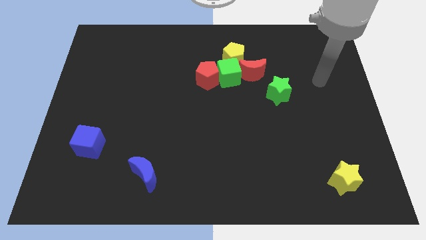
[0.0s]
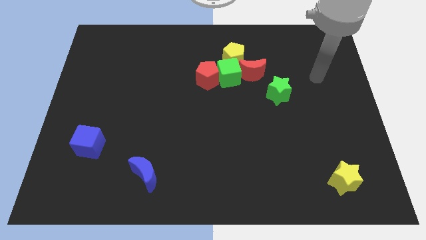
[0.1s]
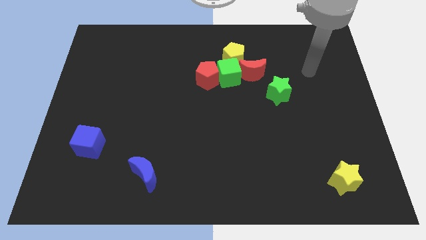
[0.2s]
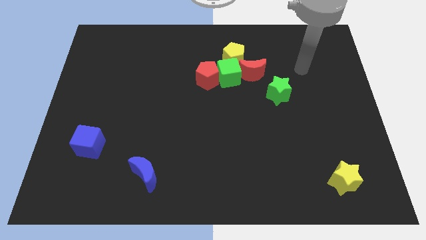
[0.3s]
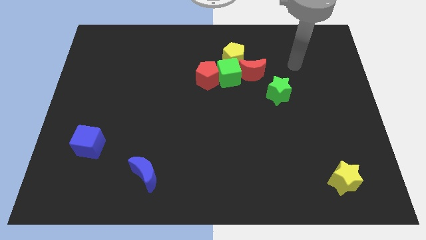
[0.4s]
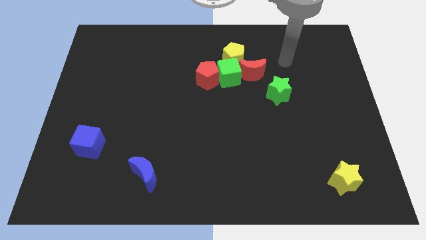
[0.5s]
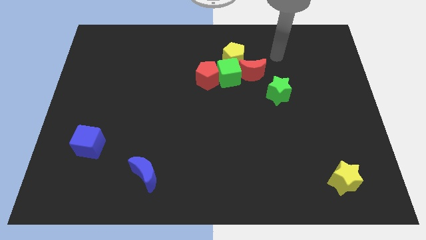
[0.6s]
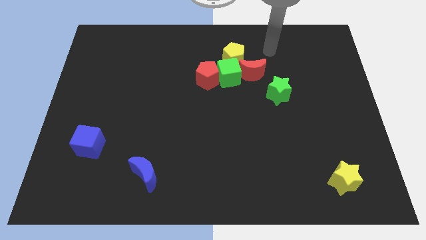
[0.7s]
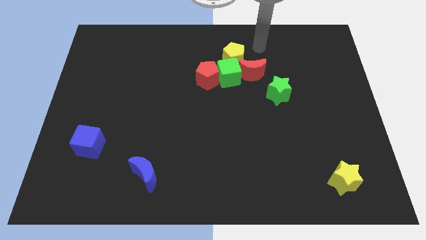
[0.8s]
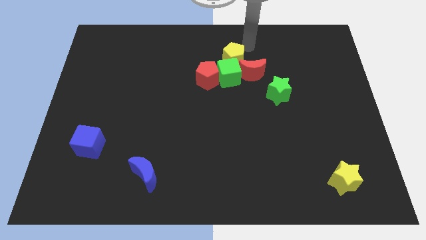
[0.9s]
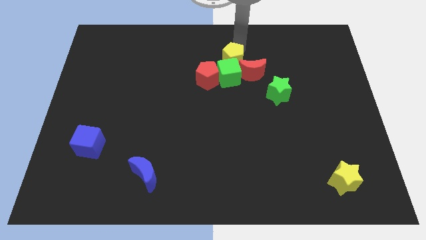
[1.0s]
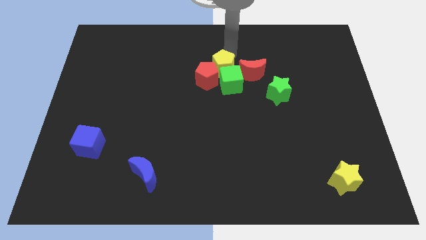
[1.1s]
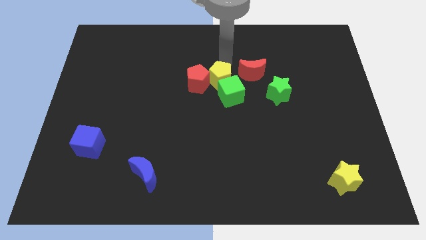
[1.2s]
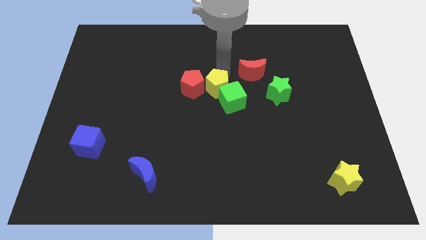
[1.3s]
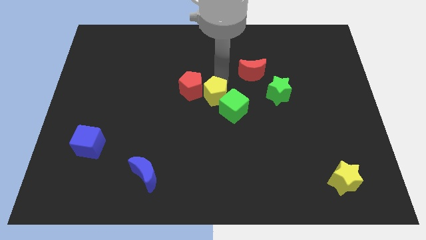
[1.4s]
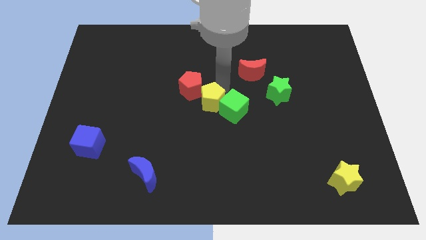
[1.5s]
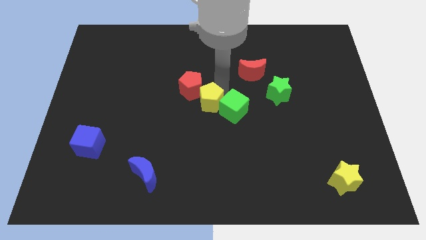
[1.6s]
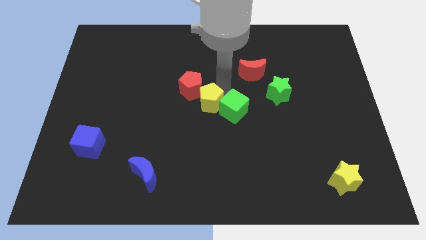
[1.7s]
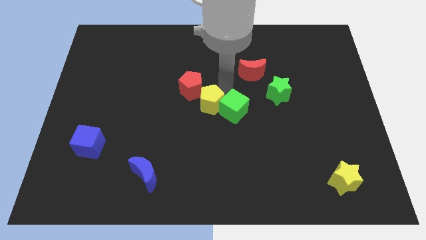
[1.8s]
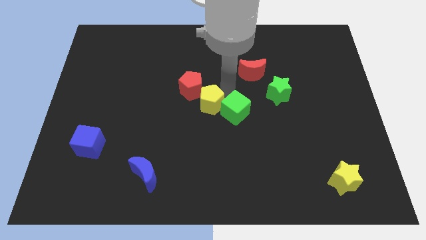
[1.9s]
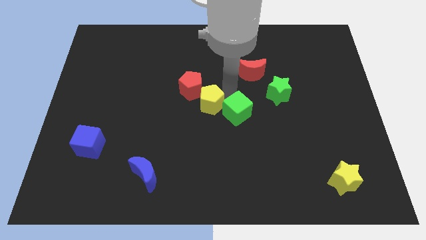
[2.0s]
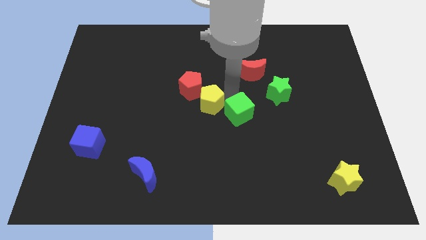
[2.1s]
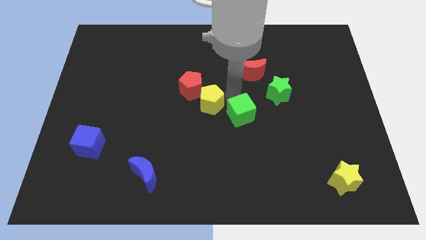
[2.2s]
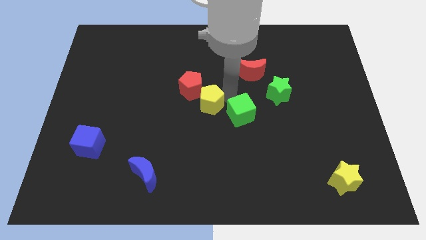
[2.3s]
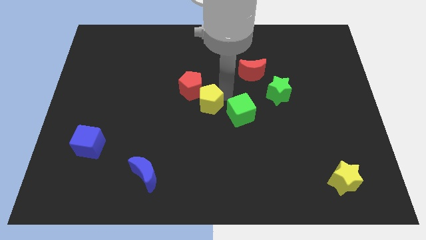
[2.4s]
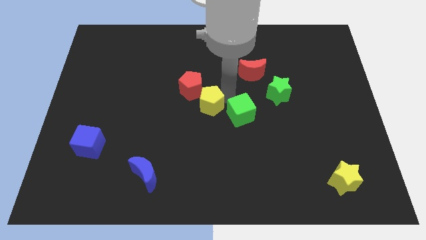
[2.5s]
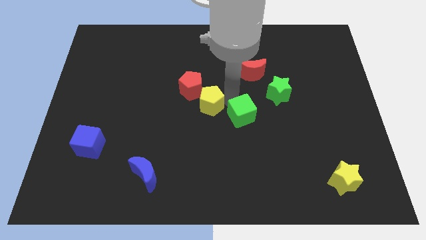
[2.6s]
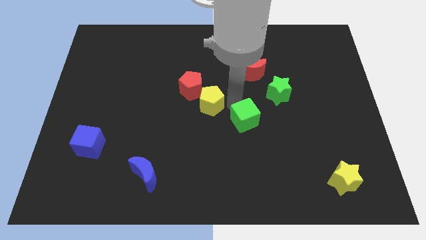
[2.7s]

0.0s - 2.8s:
pull the green cube apart from the group

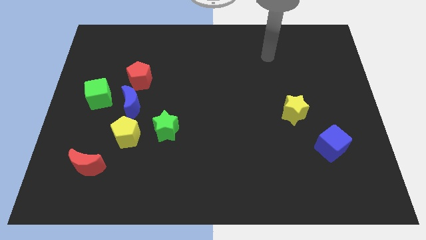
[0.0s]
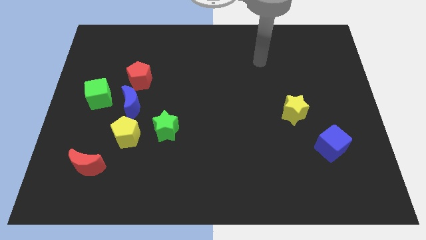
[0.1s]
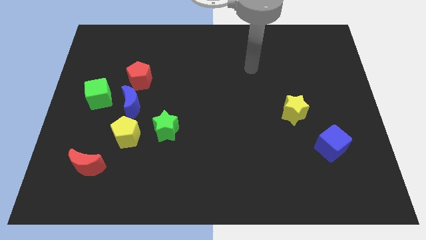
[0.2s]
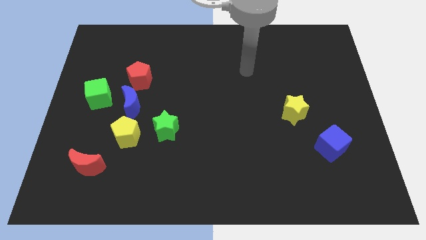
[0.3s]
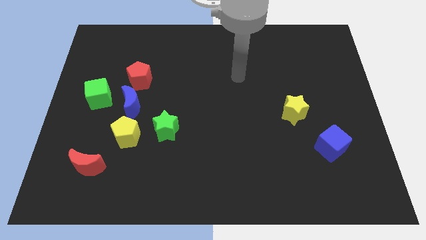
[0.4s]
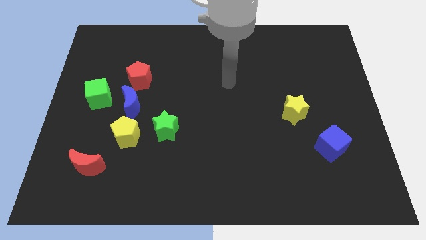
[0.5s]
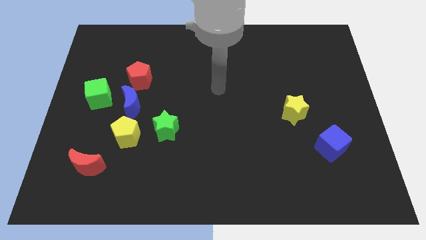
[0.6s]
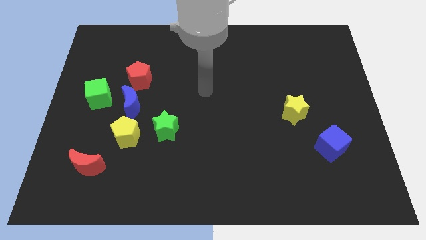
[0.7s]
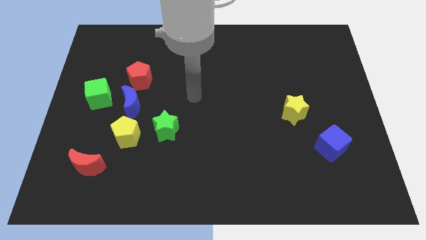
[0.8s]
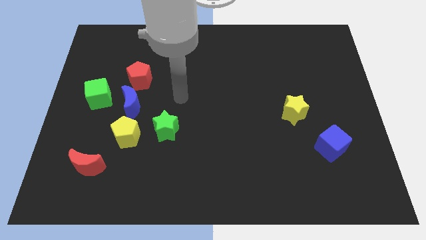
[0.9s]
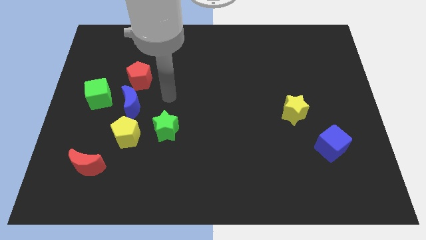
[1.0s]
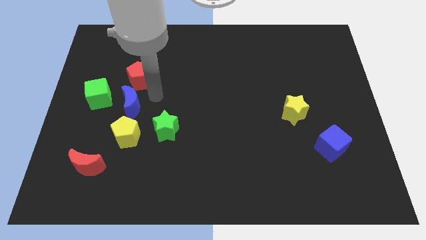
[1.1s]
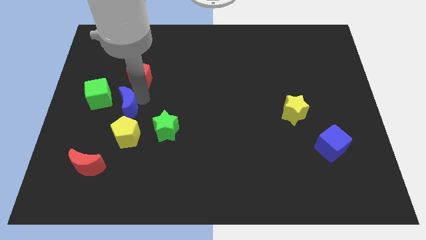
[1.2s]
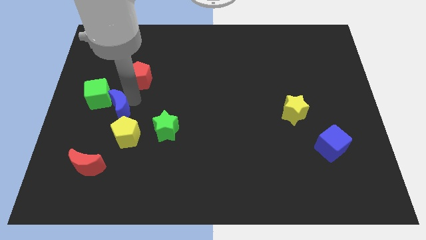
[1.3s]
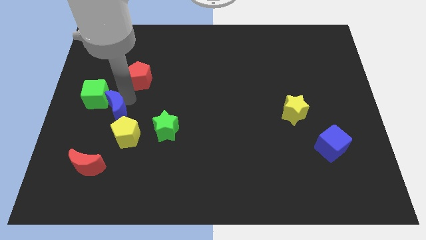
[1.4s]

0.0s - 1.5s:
move the red pentagon away from the blue moon

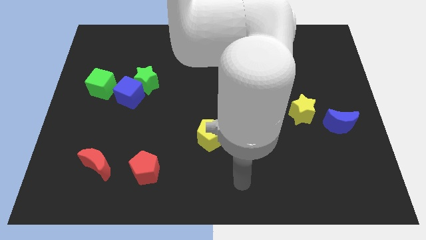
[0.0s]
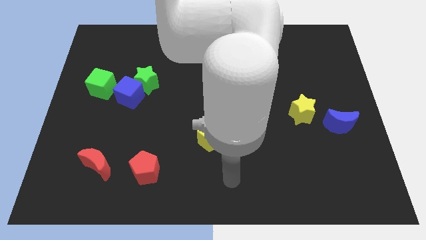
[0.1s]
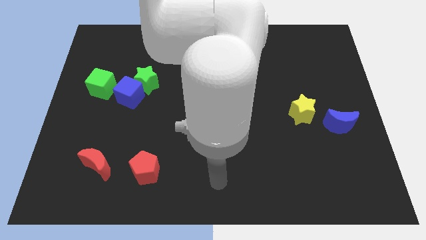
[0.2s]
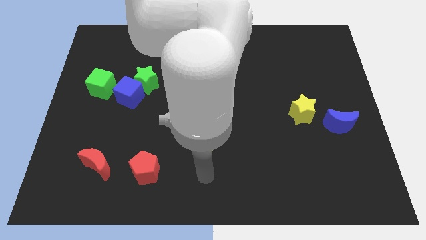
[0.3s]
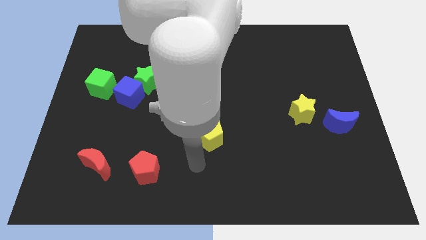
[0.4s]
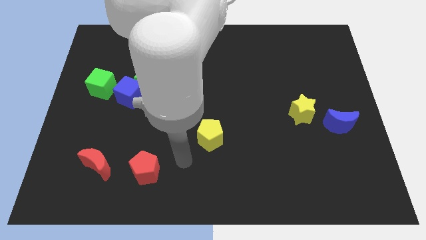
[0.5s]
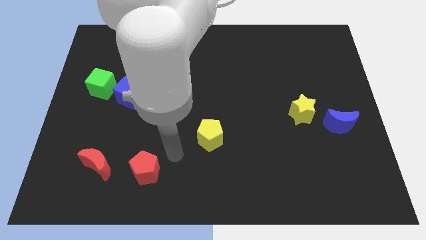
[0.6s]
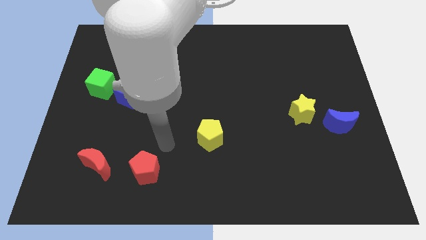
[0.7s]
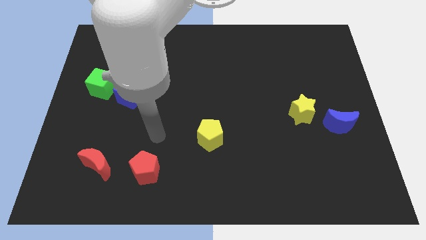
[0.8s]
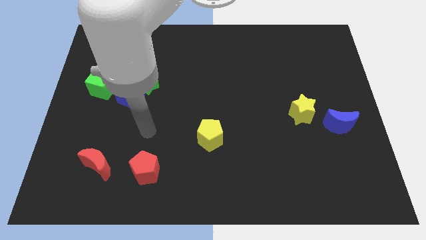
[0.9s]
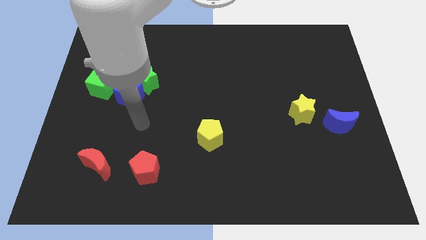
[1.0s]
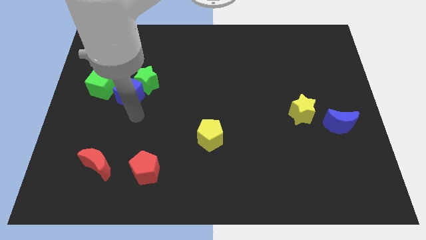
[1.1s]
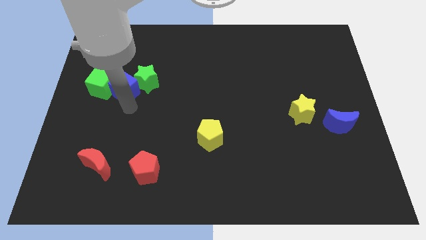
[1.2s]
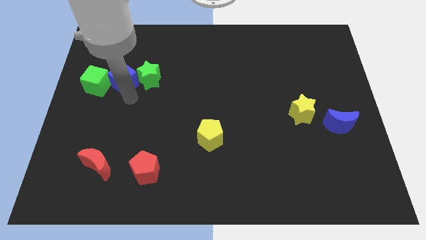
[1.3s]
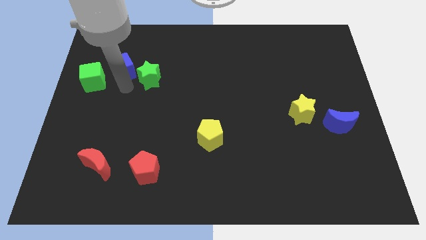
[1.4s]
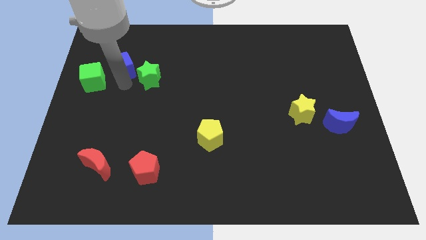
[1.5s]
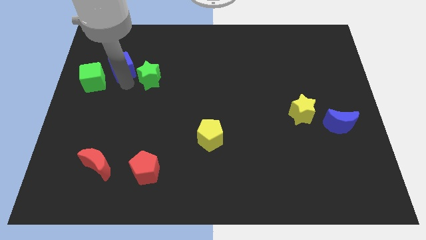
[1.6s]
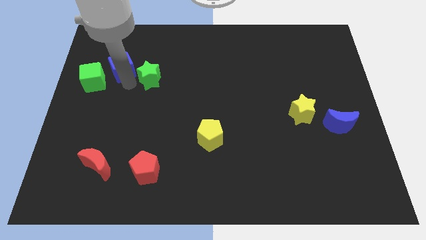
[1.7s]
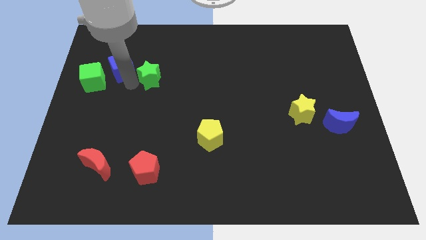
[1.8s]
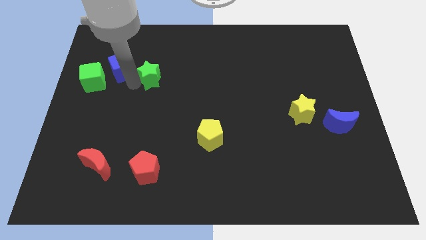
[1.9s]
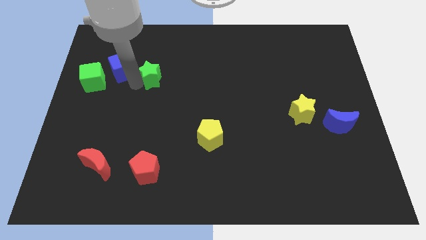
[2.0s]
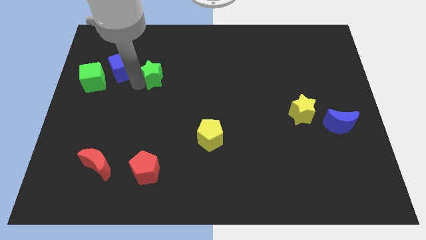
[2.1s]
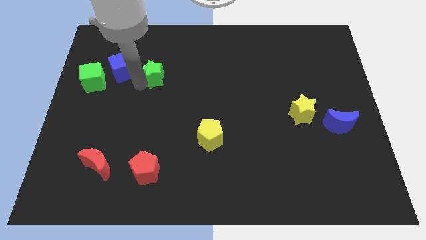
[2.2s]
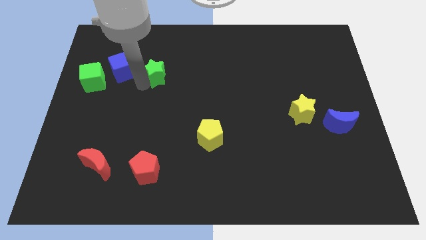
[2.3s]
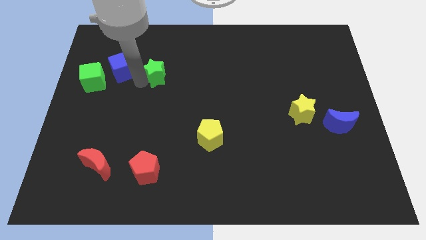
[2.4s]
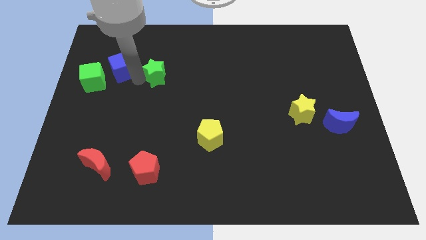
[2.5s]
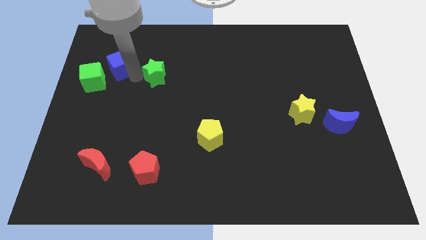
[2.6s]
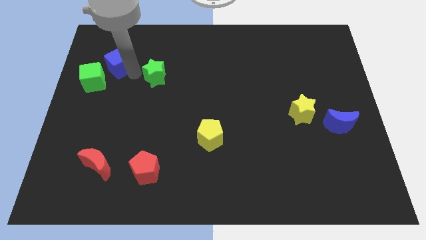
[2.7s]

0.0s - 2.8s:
separate the green star from the blue cube

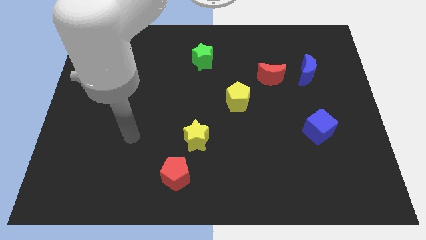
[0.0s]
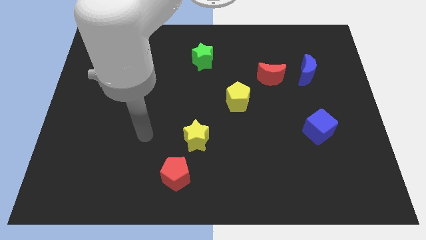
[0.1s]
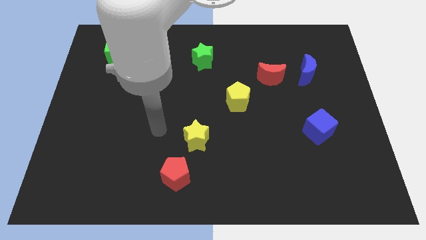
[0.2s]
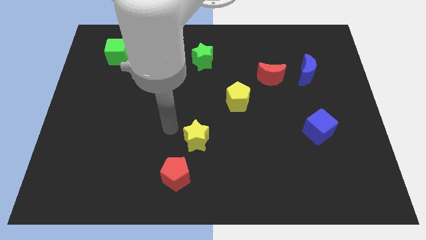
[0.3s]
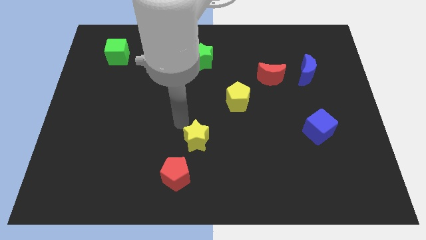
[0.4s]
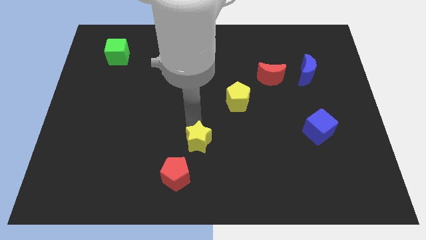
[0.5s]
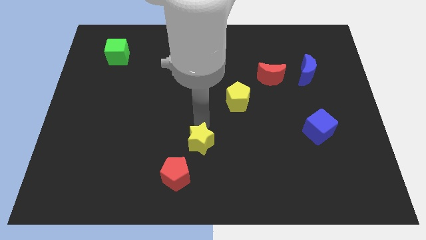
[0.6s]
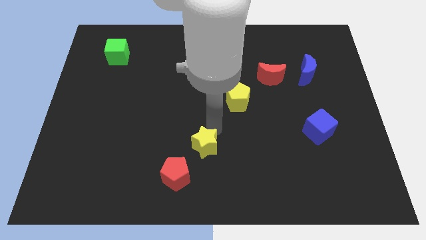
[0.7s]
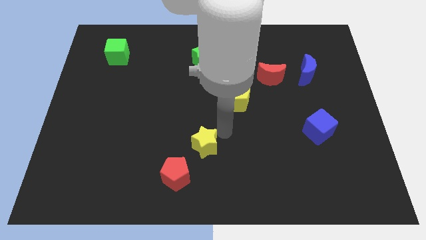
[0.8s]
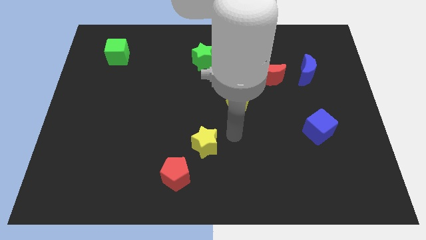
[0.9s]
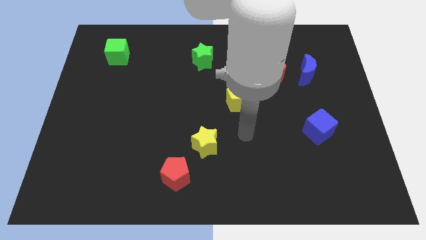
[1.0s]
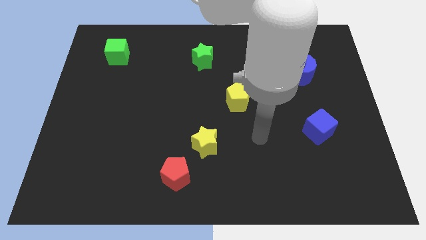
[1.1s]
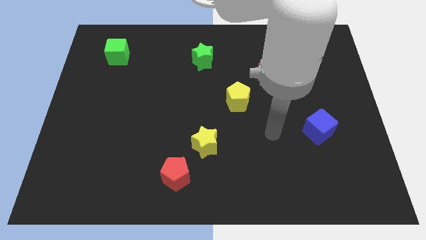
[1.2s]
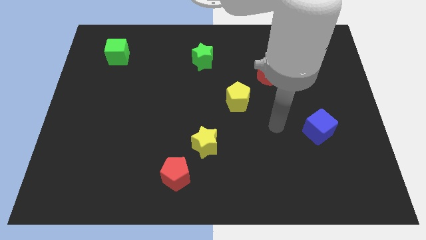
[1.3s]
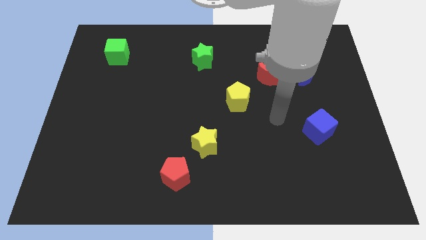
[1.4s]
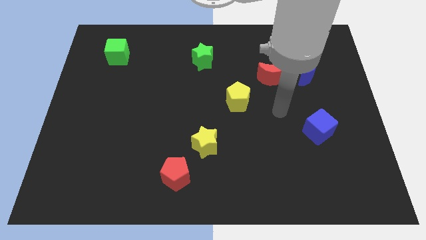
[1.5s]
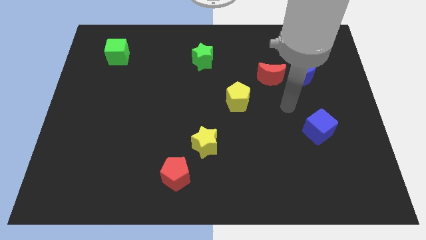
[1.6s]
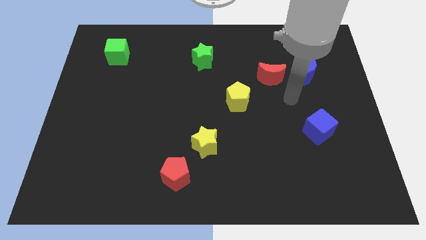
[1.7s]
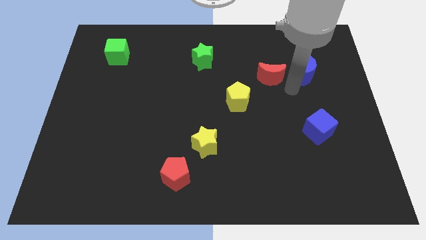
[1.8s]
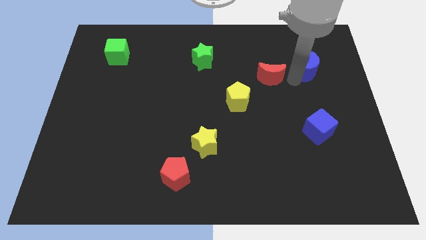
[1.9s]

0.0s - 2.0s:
pull the red moon apart from the blue moon
